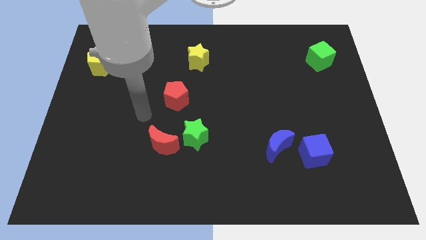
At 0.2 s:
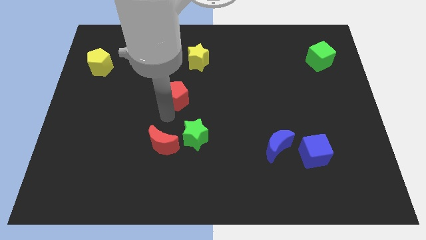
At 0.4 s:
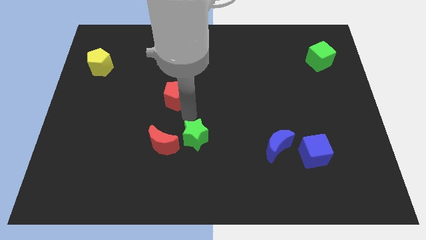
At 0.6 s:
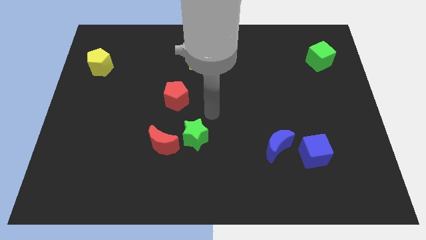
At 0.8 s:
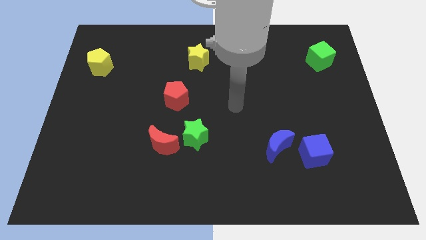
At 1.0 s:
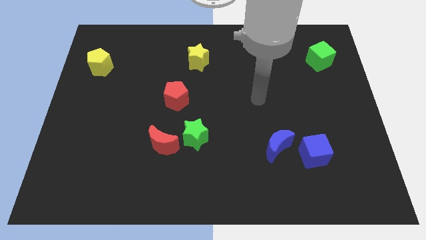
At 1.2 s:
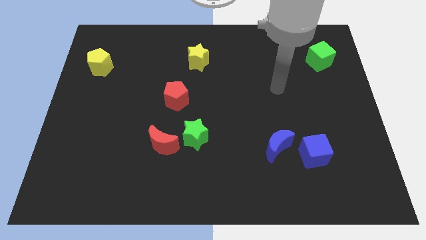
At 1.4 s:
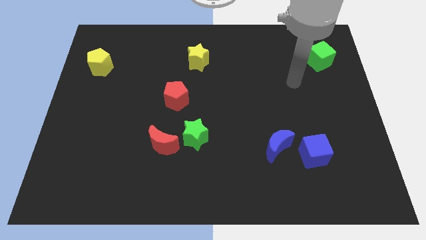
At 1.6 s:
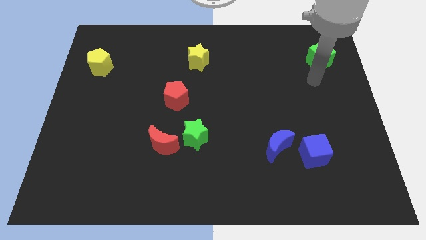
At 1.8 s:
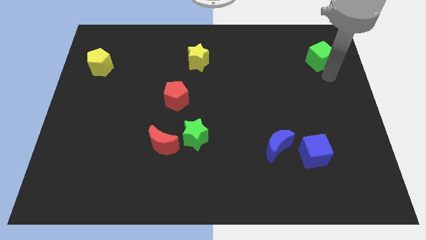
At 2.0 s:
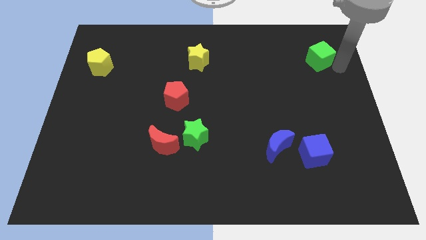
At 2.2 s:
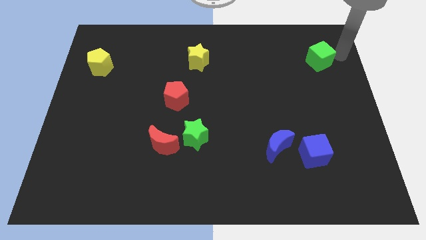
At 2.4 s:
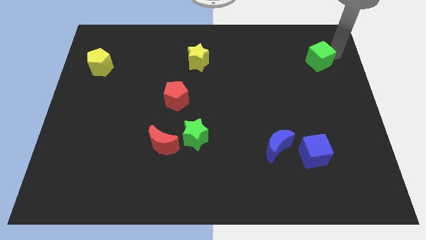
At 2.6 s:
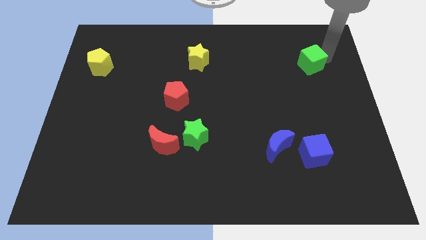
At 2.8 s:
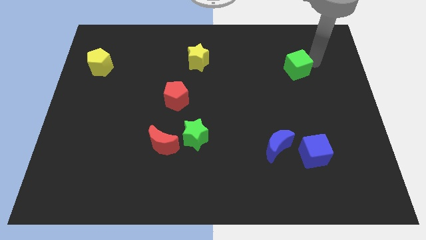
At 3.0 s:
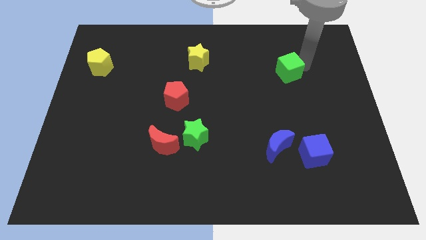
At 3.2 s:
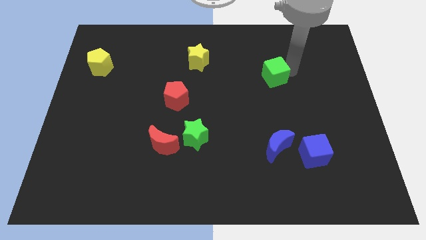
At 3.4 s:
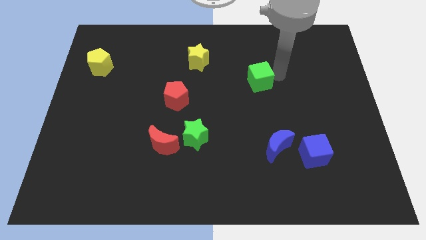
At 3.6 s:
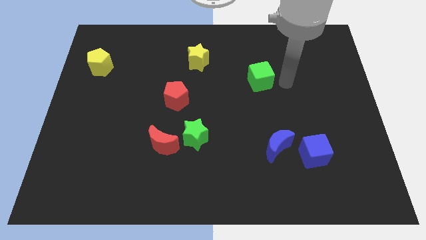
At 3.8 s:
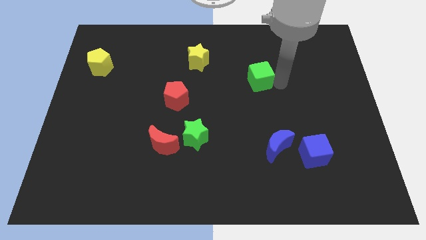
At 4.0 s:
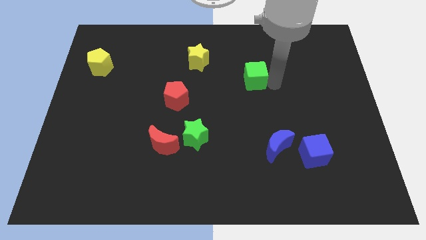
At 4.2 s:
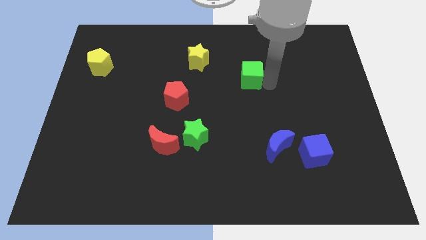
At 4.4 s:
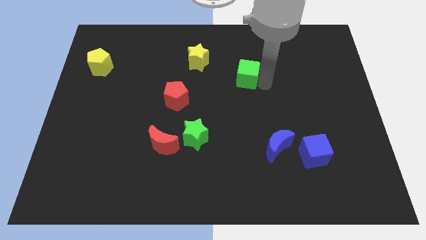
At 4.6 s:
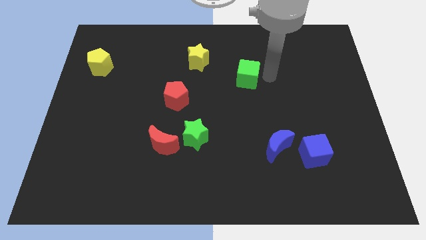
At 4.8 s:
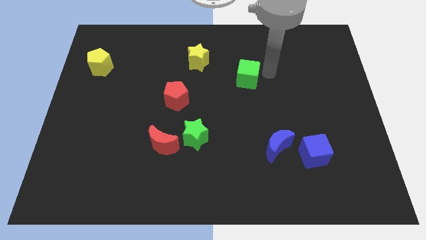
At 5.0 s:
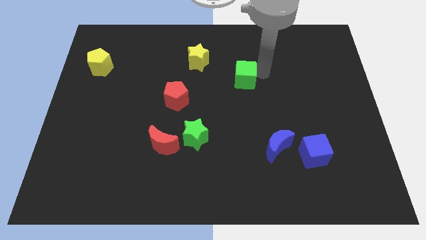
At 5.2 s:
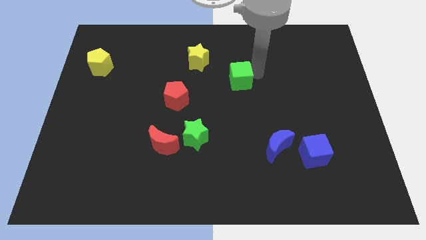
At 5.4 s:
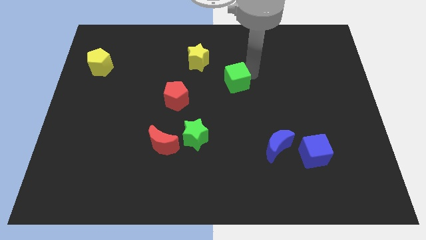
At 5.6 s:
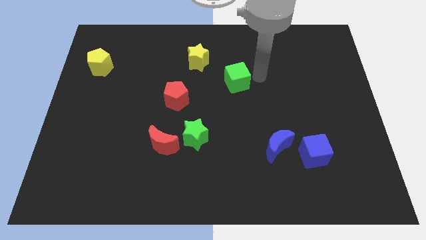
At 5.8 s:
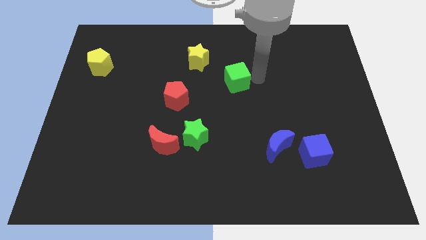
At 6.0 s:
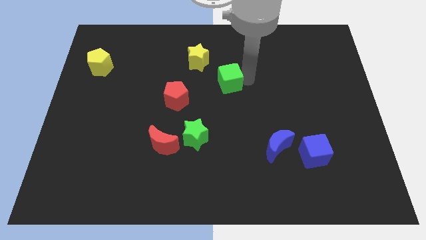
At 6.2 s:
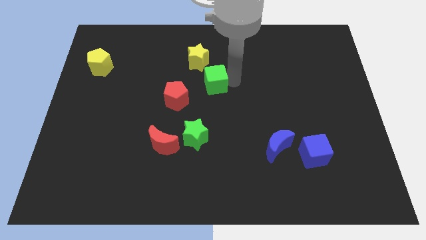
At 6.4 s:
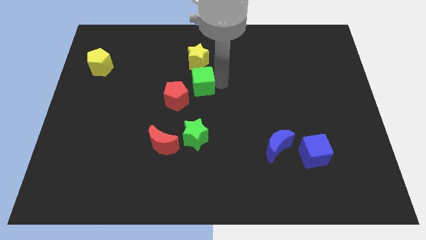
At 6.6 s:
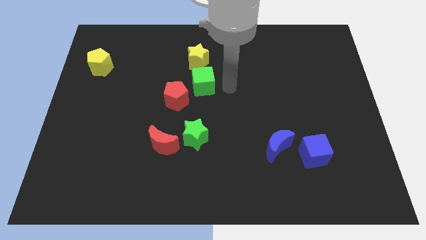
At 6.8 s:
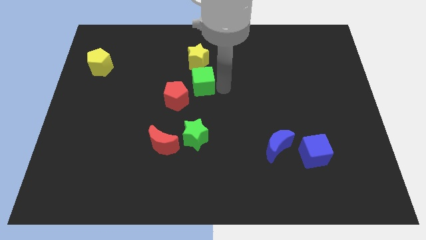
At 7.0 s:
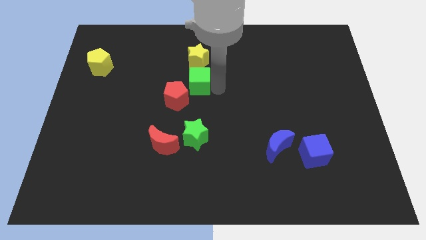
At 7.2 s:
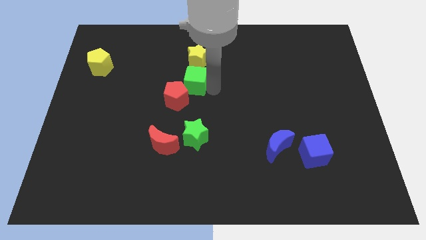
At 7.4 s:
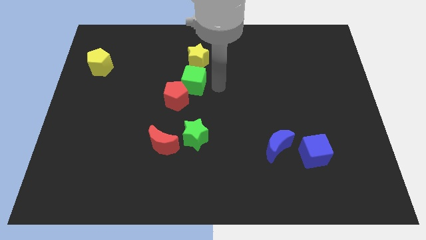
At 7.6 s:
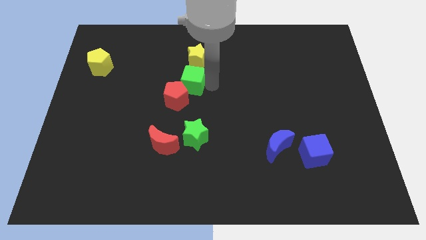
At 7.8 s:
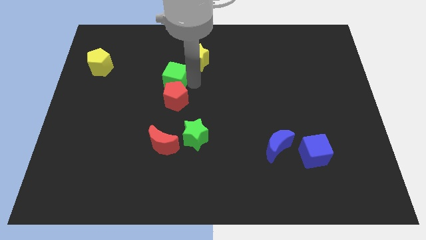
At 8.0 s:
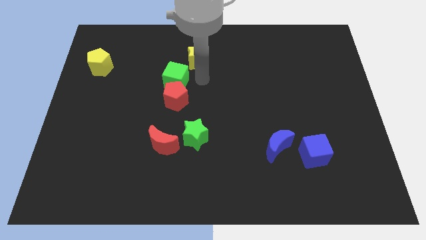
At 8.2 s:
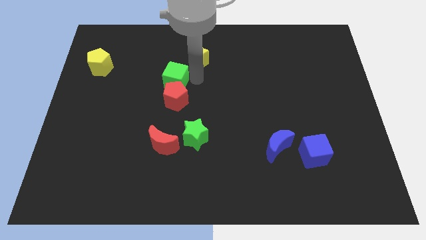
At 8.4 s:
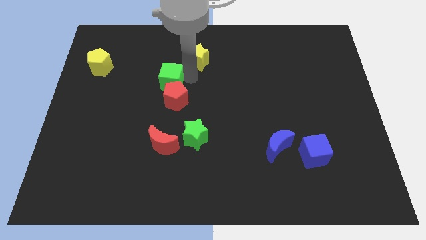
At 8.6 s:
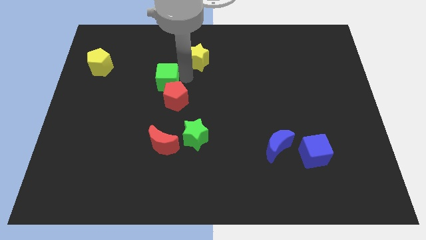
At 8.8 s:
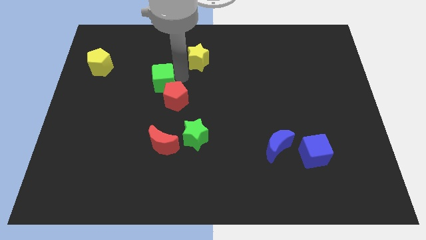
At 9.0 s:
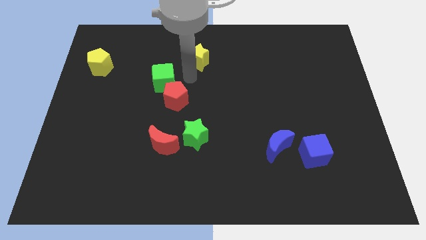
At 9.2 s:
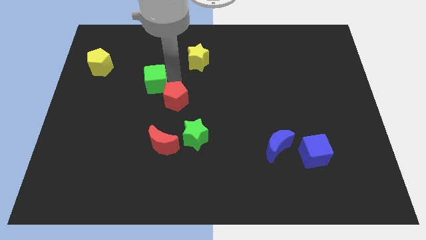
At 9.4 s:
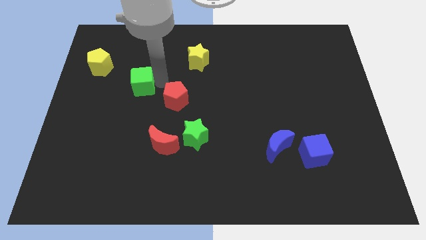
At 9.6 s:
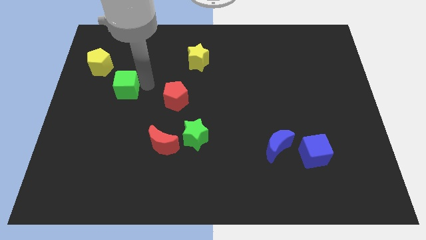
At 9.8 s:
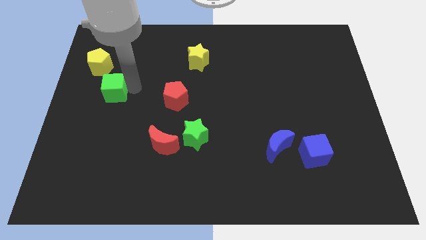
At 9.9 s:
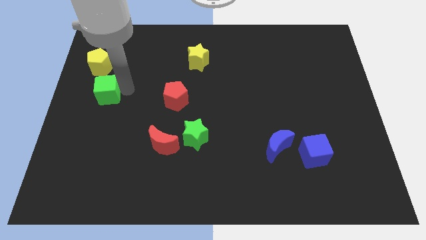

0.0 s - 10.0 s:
push the green cube to the left side of the board

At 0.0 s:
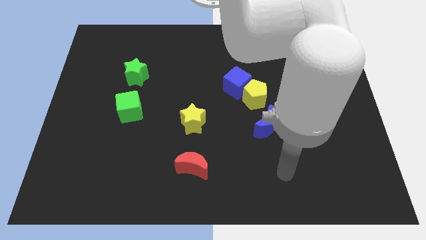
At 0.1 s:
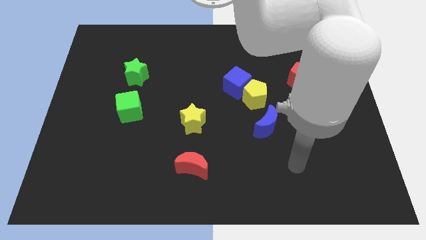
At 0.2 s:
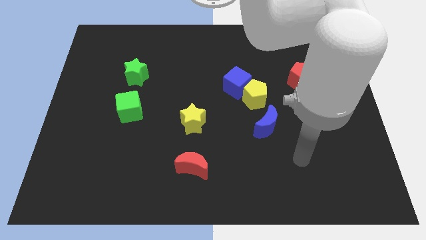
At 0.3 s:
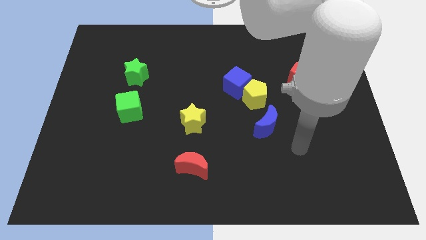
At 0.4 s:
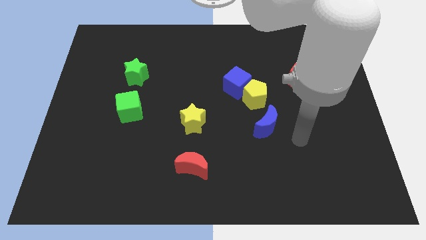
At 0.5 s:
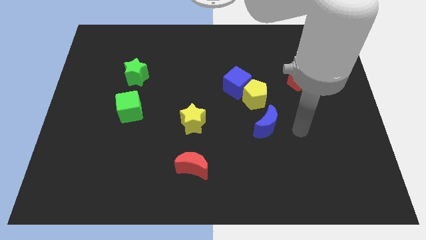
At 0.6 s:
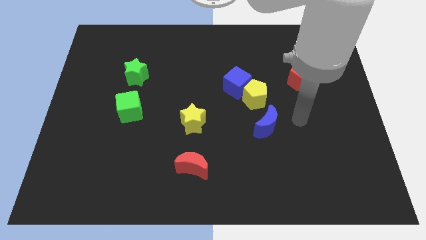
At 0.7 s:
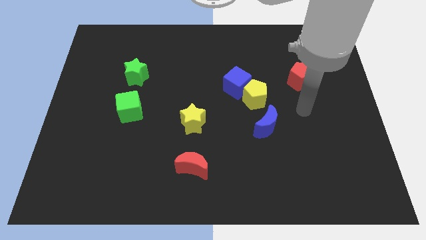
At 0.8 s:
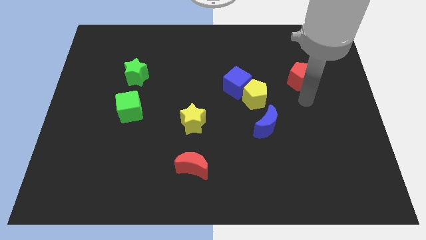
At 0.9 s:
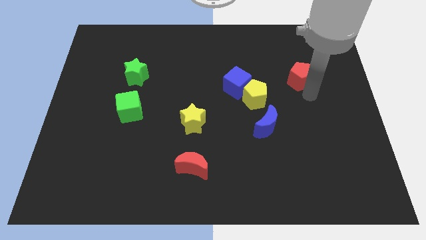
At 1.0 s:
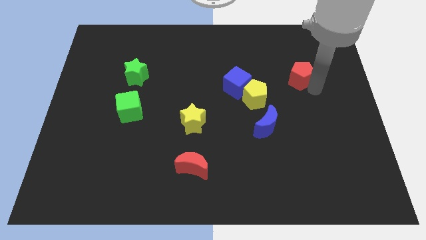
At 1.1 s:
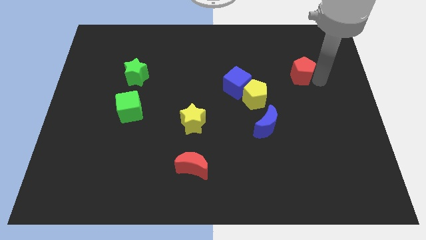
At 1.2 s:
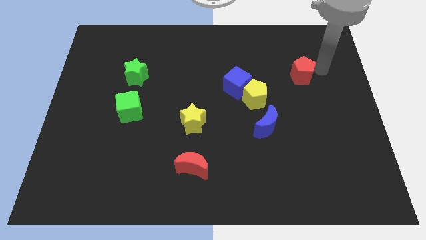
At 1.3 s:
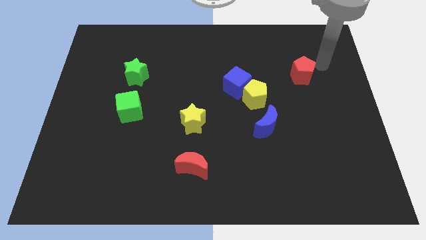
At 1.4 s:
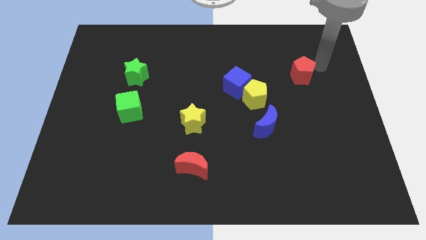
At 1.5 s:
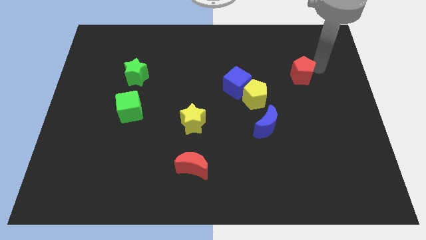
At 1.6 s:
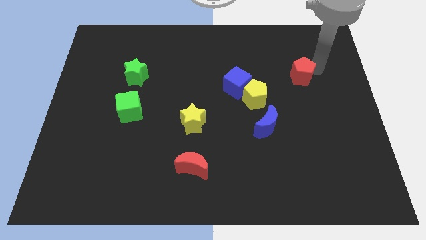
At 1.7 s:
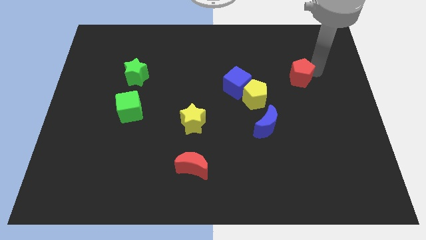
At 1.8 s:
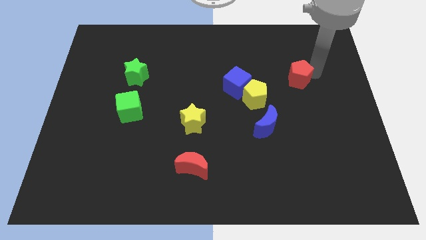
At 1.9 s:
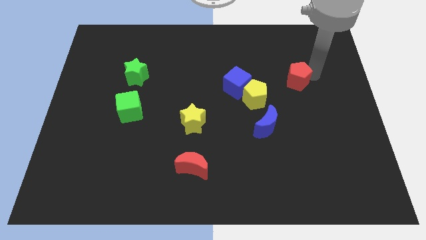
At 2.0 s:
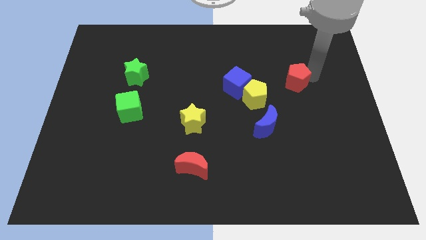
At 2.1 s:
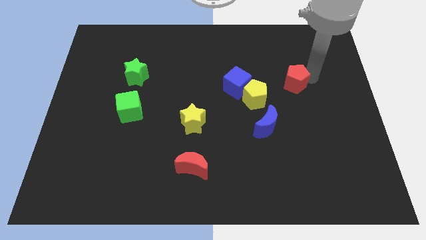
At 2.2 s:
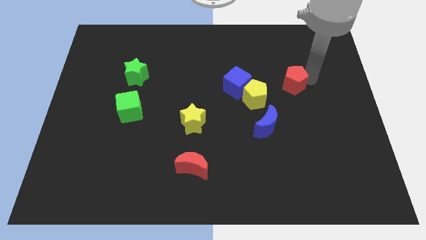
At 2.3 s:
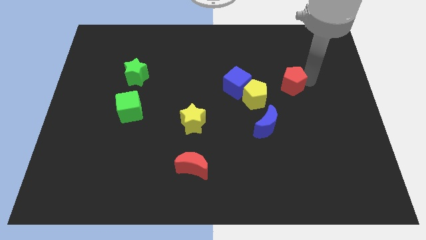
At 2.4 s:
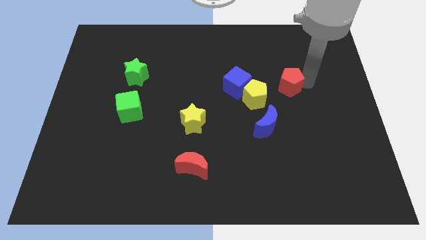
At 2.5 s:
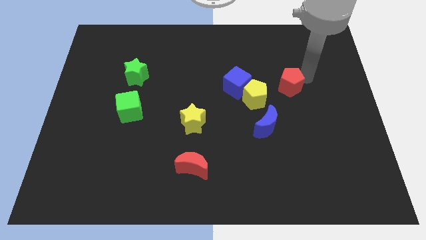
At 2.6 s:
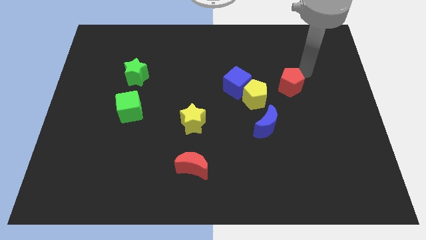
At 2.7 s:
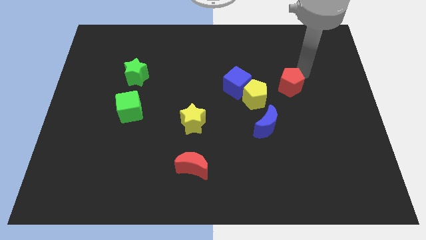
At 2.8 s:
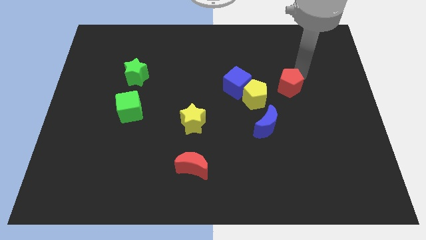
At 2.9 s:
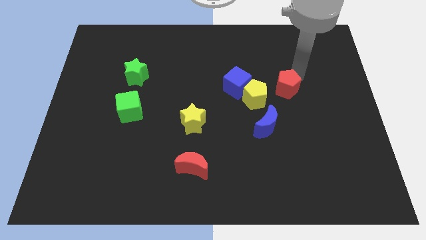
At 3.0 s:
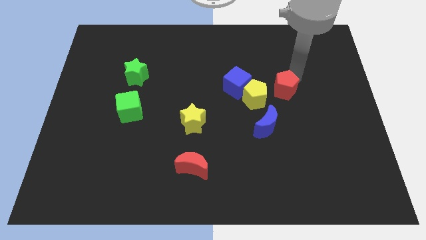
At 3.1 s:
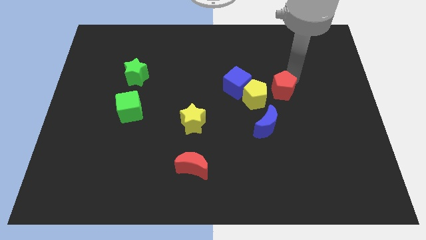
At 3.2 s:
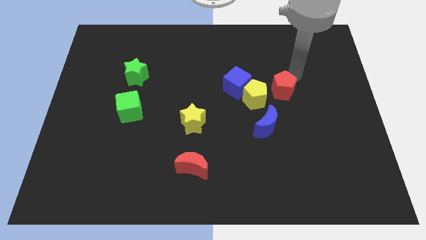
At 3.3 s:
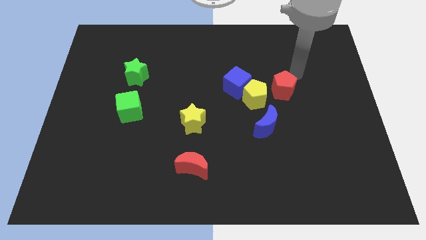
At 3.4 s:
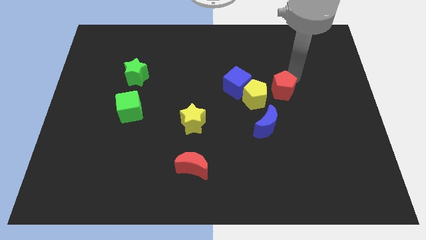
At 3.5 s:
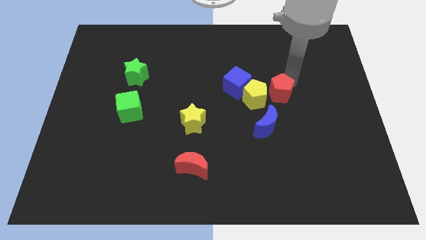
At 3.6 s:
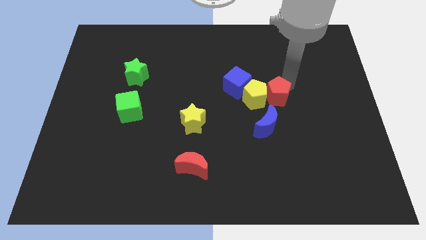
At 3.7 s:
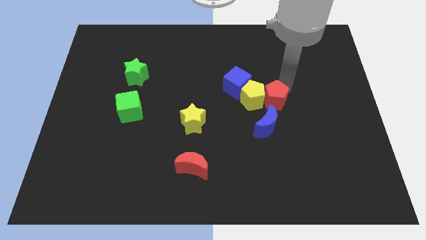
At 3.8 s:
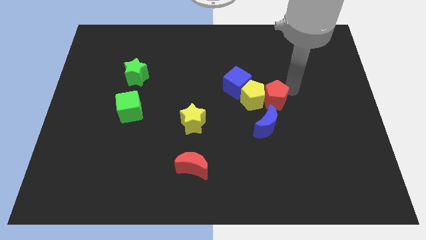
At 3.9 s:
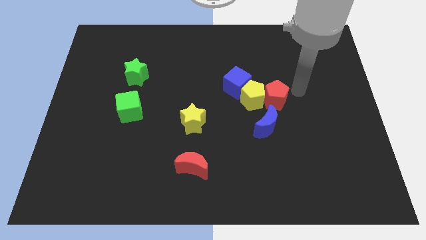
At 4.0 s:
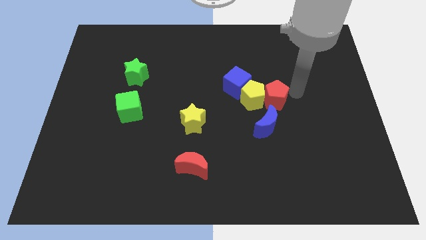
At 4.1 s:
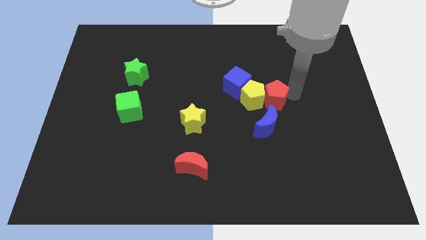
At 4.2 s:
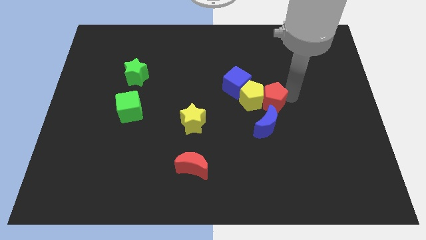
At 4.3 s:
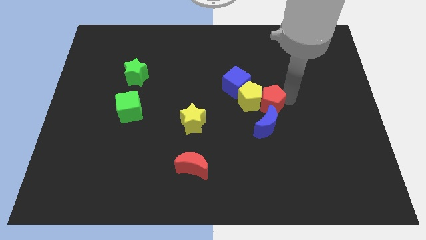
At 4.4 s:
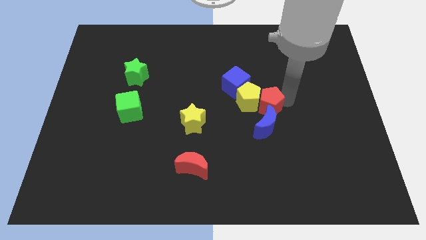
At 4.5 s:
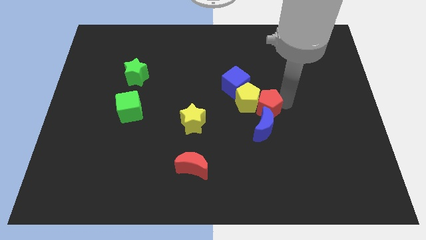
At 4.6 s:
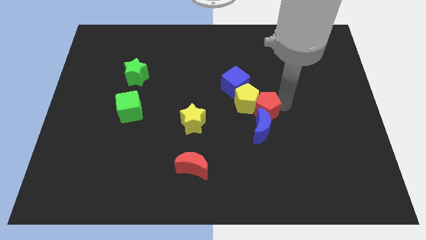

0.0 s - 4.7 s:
move the red pentagon to the center
